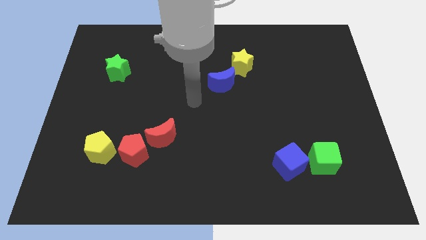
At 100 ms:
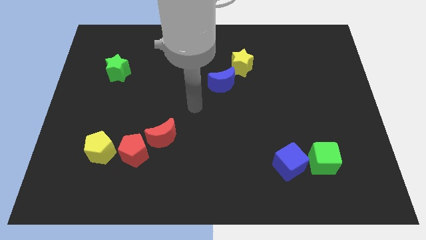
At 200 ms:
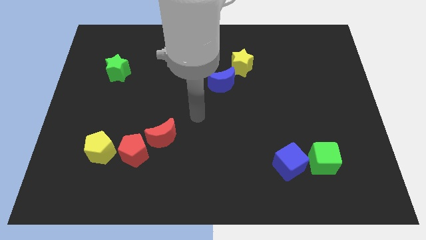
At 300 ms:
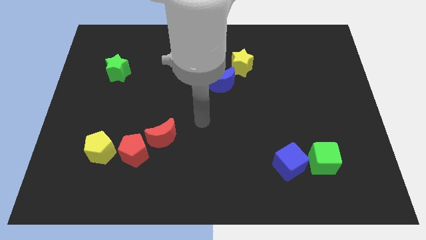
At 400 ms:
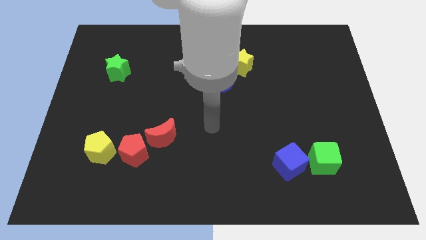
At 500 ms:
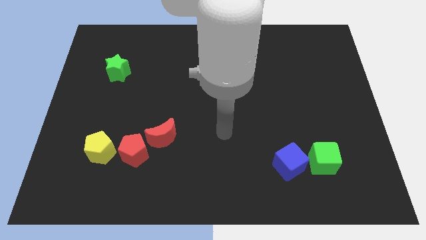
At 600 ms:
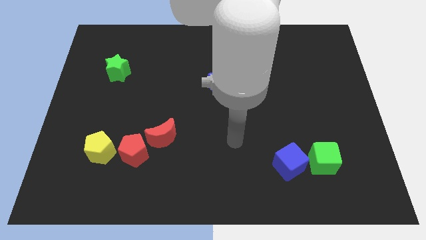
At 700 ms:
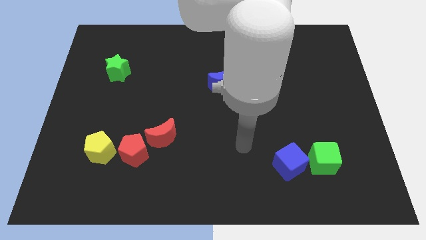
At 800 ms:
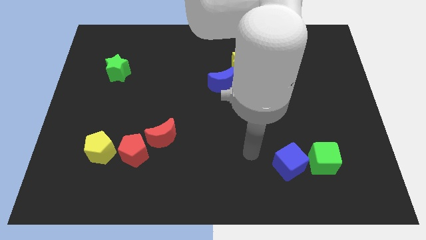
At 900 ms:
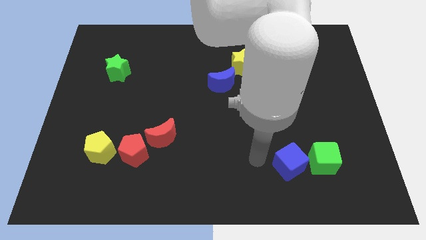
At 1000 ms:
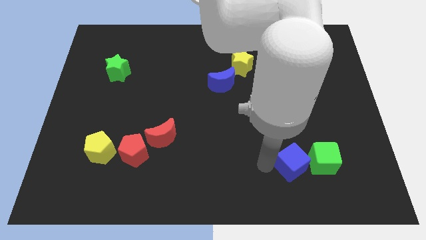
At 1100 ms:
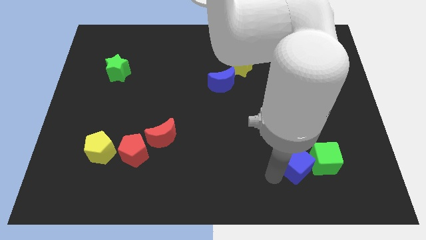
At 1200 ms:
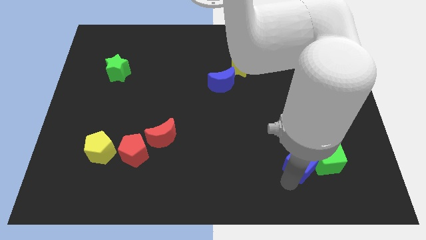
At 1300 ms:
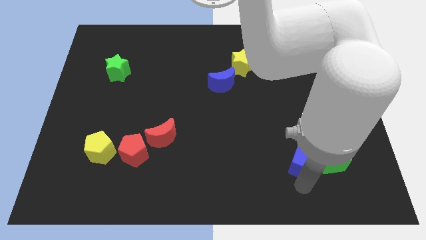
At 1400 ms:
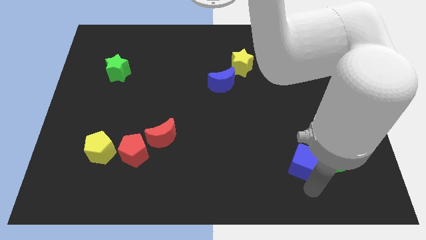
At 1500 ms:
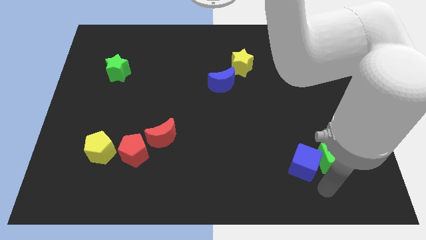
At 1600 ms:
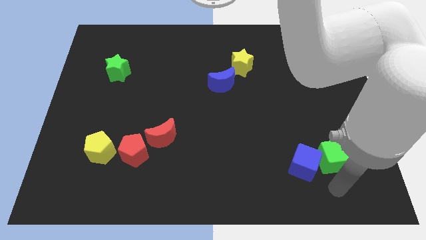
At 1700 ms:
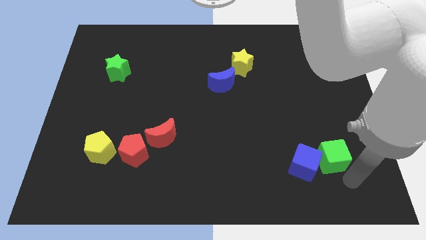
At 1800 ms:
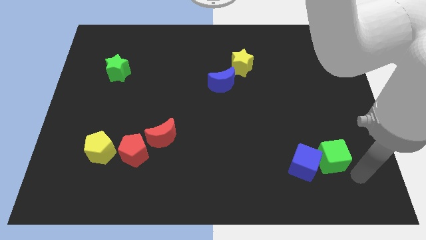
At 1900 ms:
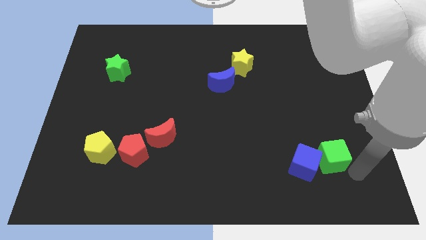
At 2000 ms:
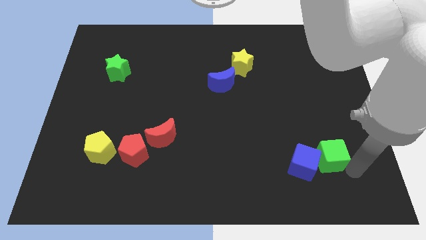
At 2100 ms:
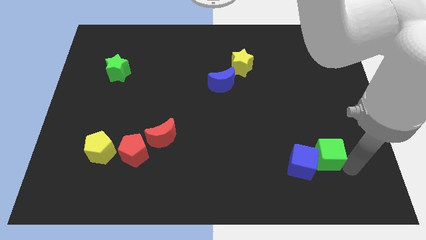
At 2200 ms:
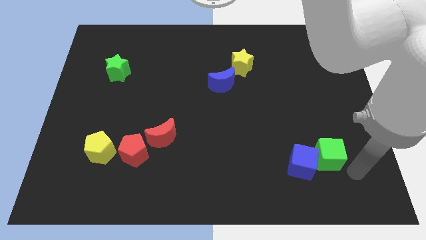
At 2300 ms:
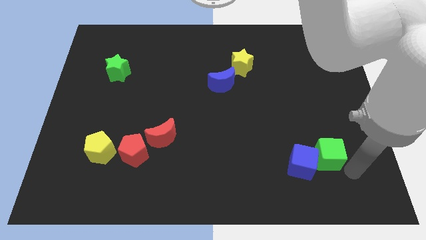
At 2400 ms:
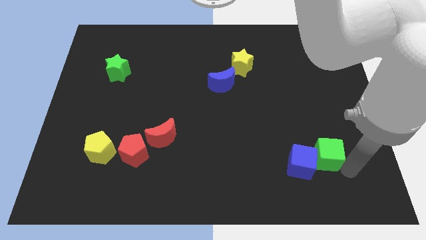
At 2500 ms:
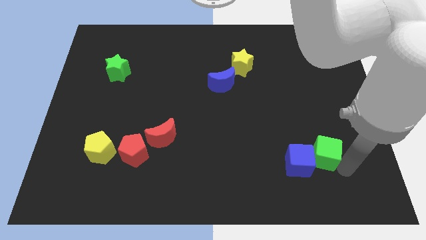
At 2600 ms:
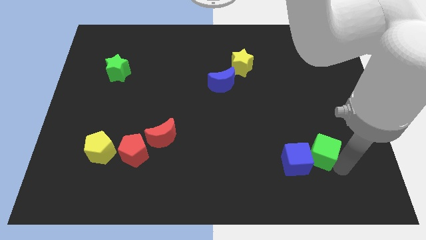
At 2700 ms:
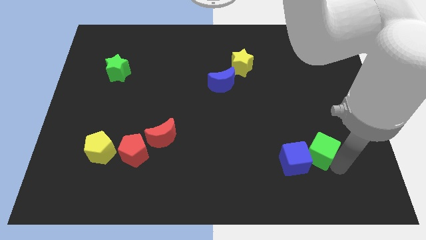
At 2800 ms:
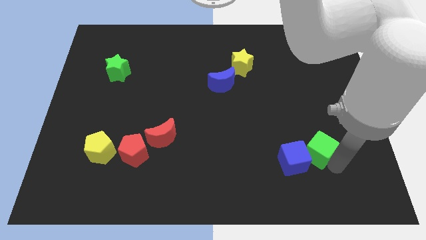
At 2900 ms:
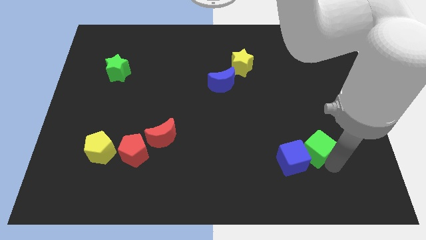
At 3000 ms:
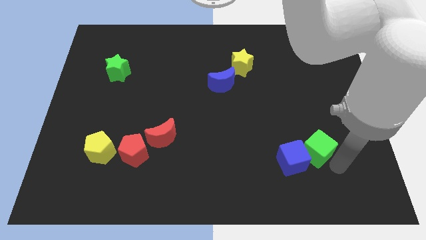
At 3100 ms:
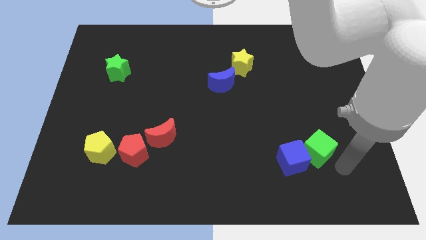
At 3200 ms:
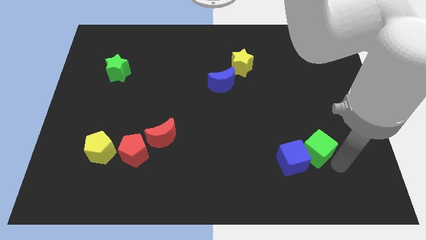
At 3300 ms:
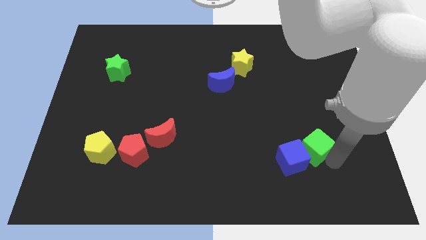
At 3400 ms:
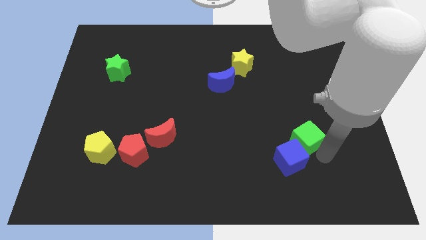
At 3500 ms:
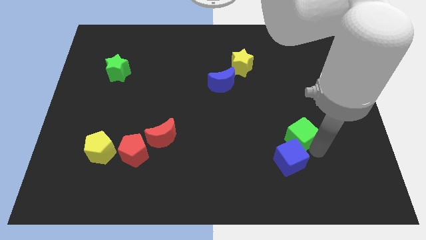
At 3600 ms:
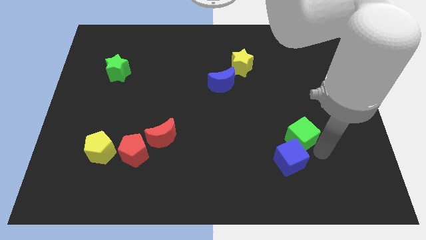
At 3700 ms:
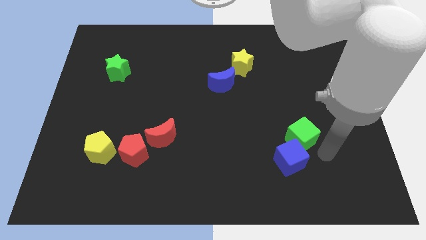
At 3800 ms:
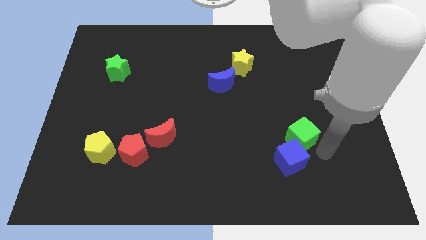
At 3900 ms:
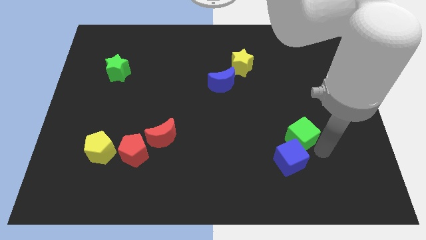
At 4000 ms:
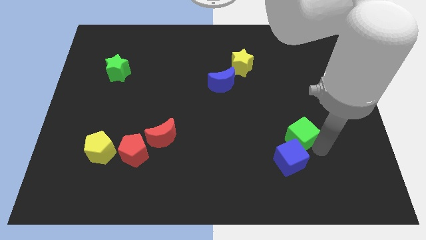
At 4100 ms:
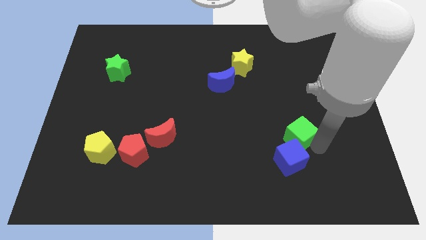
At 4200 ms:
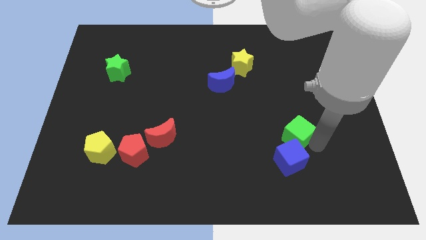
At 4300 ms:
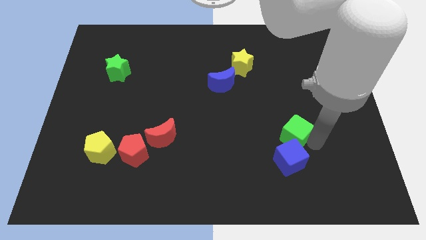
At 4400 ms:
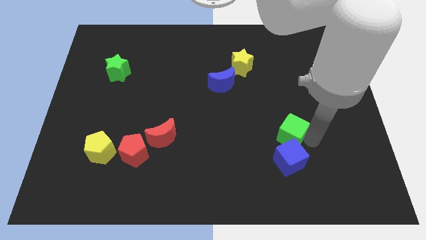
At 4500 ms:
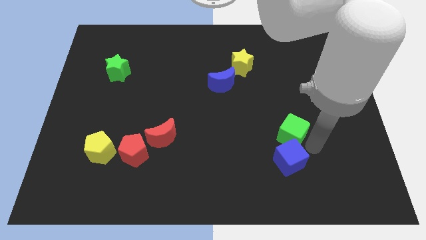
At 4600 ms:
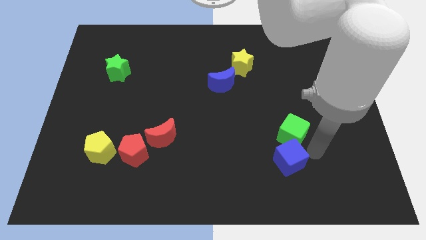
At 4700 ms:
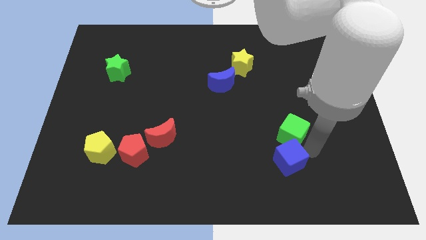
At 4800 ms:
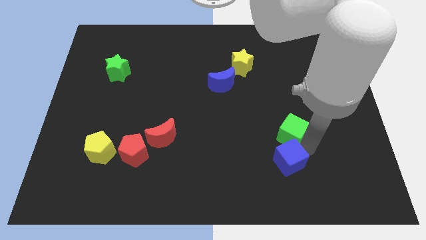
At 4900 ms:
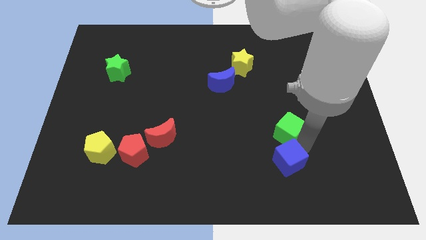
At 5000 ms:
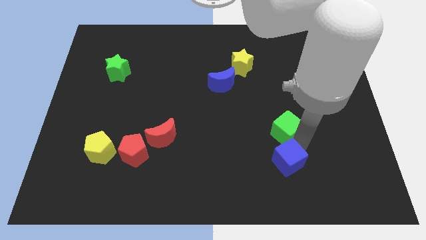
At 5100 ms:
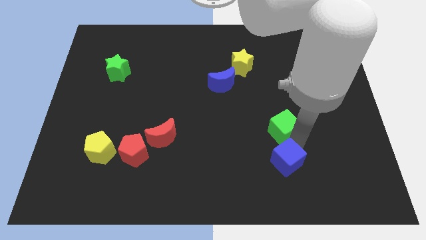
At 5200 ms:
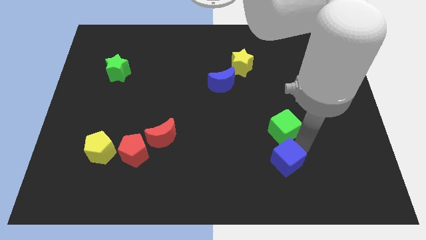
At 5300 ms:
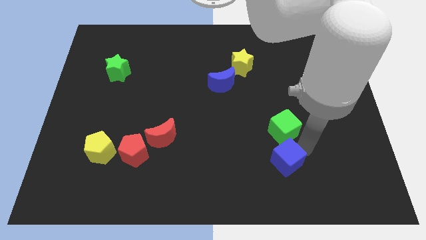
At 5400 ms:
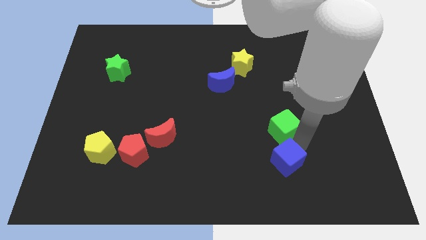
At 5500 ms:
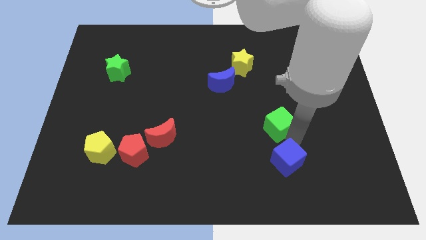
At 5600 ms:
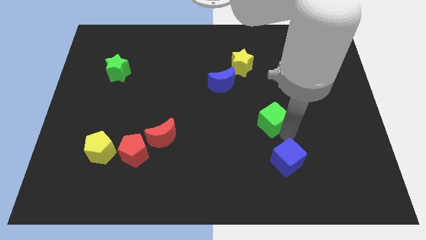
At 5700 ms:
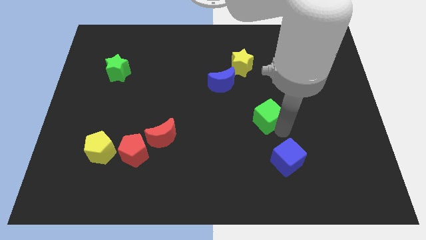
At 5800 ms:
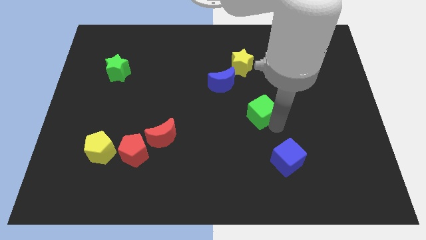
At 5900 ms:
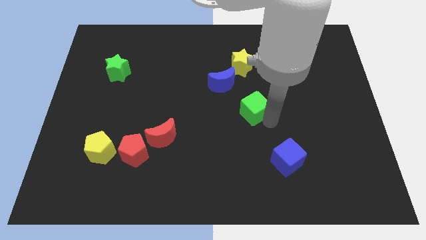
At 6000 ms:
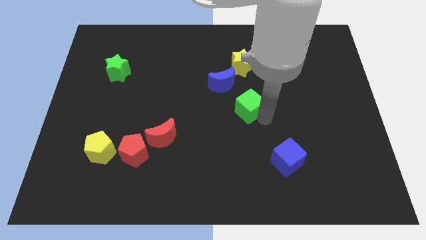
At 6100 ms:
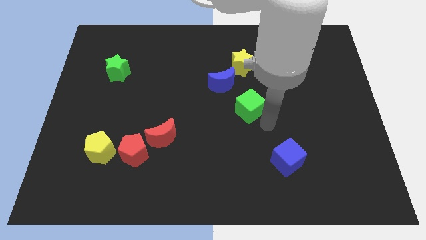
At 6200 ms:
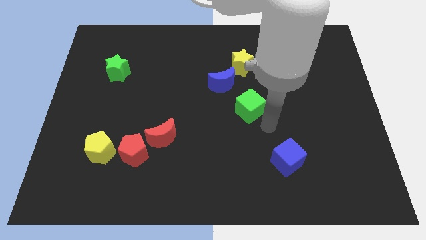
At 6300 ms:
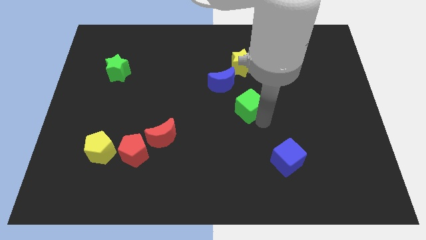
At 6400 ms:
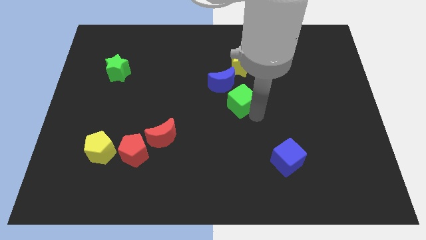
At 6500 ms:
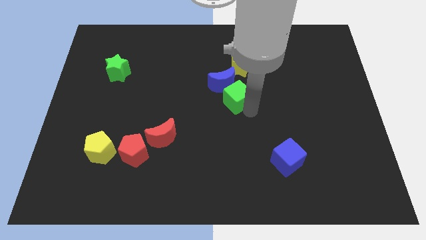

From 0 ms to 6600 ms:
put the green cube towards the blue moon

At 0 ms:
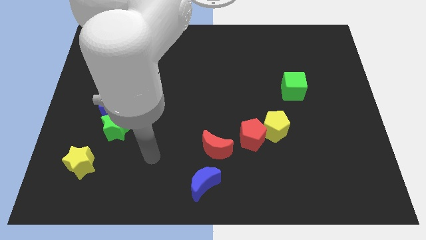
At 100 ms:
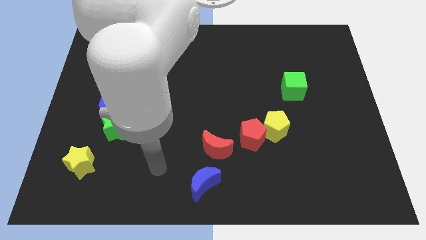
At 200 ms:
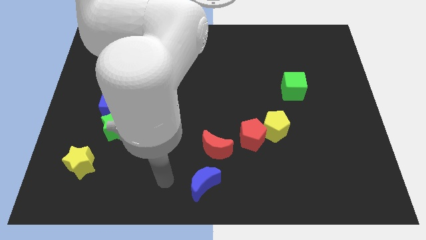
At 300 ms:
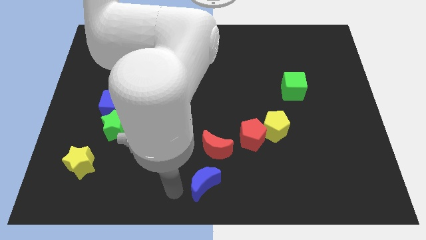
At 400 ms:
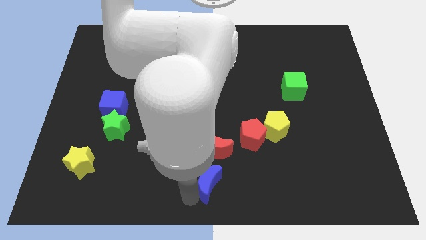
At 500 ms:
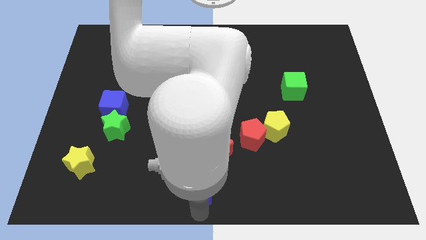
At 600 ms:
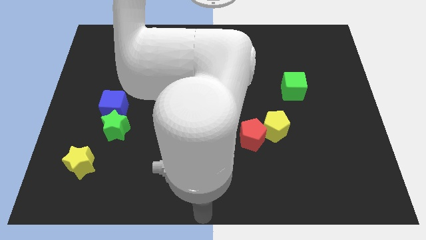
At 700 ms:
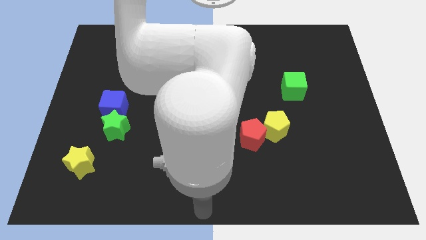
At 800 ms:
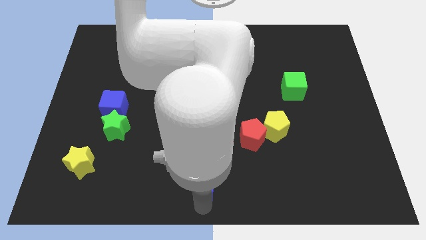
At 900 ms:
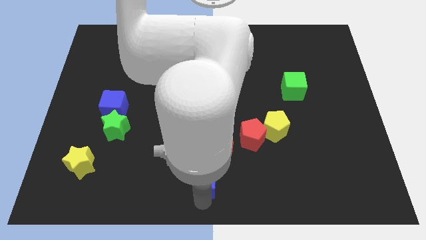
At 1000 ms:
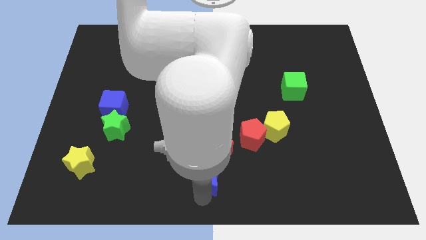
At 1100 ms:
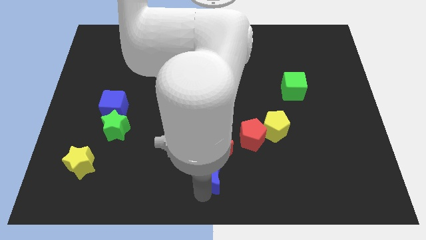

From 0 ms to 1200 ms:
move the blue moon towards the red moon
